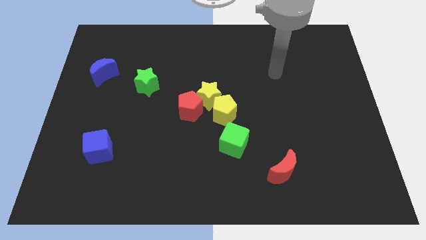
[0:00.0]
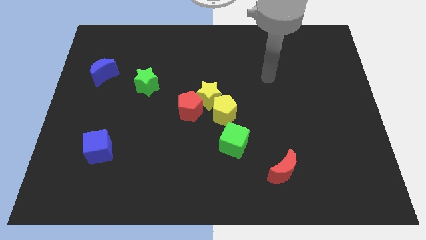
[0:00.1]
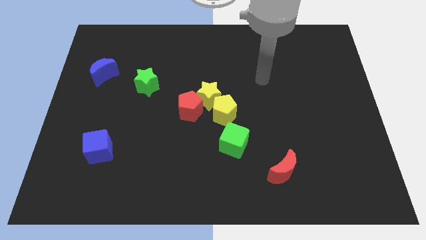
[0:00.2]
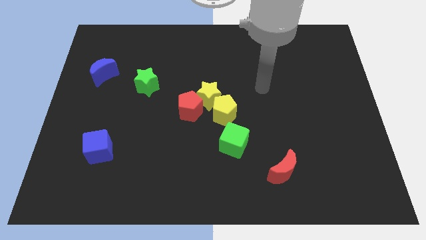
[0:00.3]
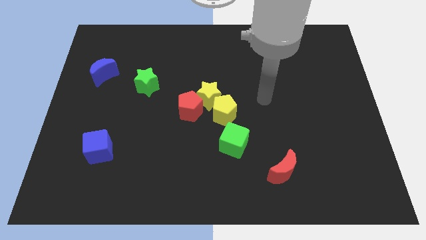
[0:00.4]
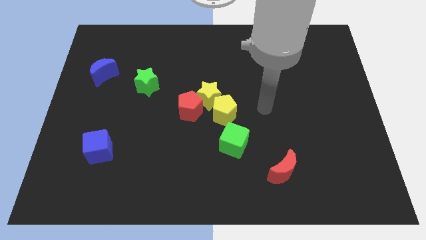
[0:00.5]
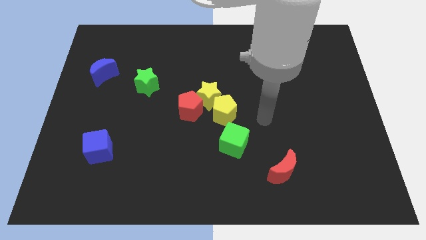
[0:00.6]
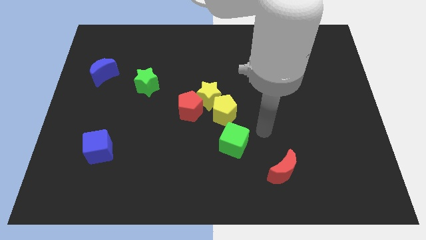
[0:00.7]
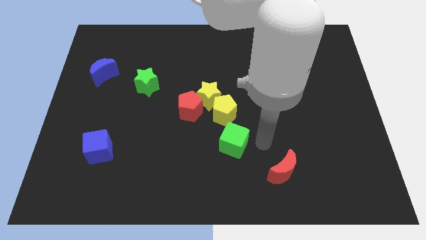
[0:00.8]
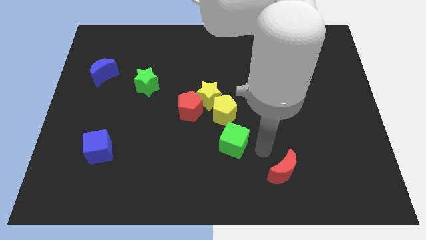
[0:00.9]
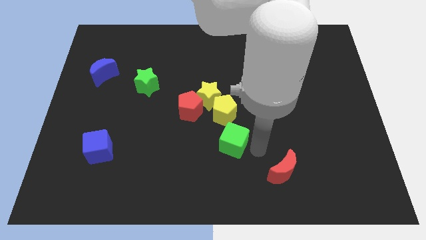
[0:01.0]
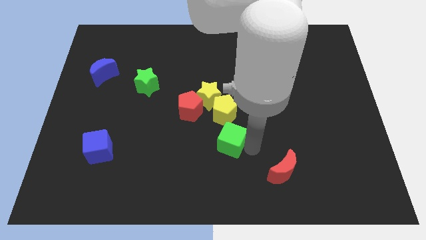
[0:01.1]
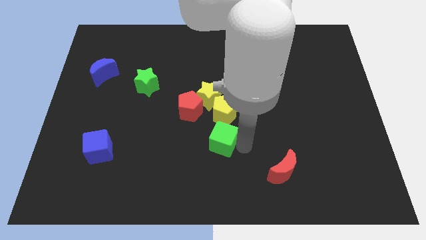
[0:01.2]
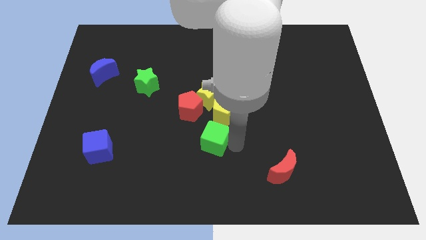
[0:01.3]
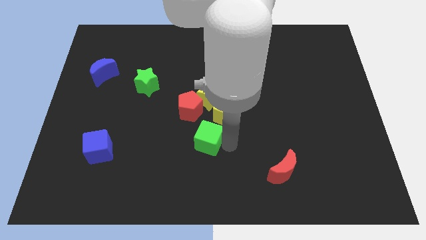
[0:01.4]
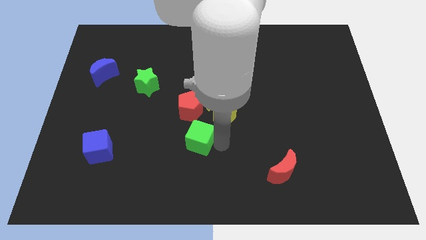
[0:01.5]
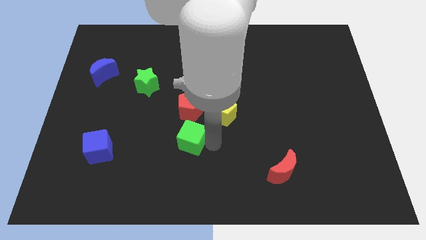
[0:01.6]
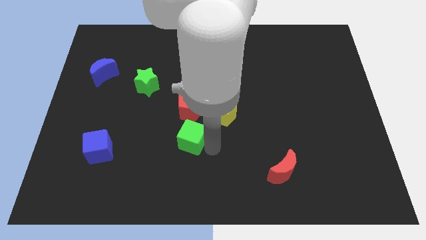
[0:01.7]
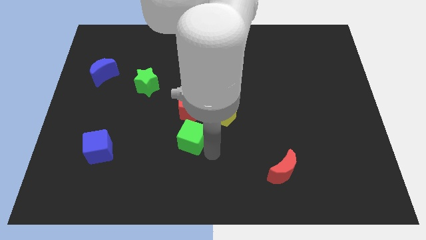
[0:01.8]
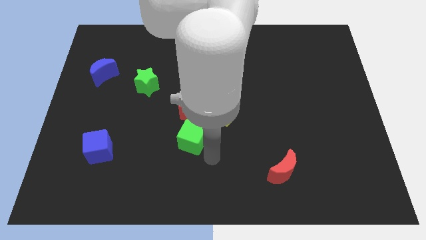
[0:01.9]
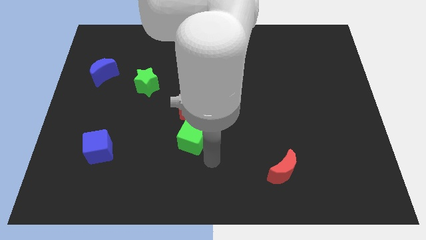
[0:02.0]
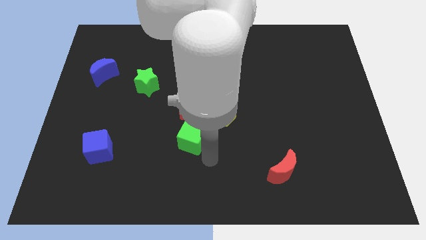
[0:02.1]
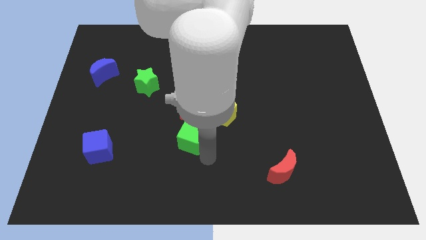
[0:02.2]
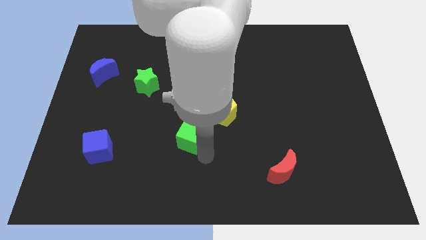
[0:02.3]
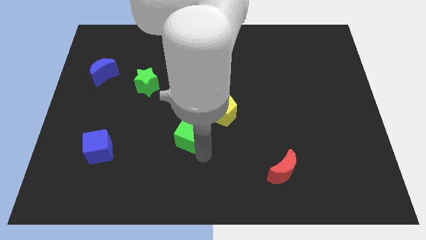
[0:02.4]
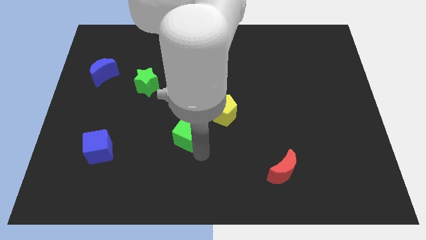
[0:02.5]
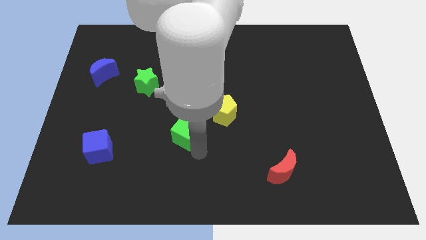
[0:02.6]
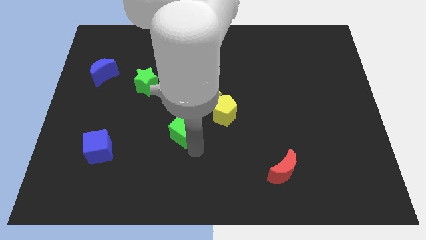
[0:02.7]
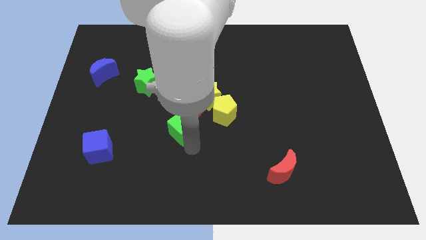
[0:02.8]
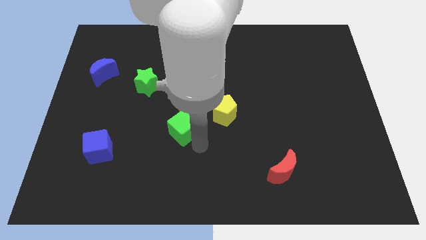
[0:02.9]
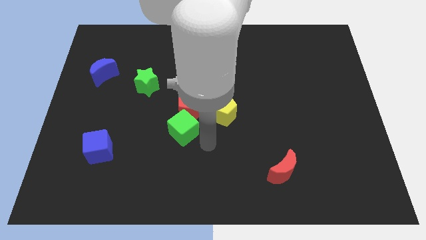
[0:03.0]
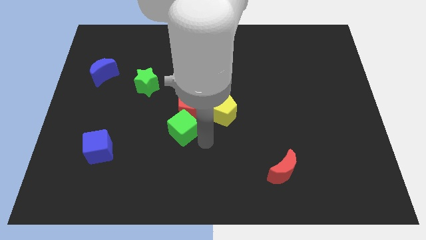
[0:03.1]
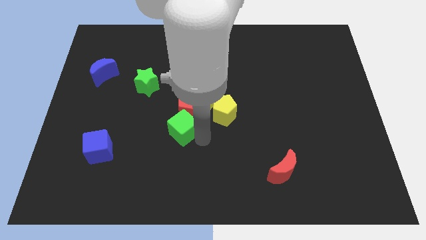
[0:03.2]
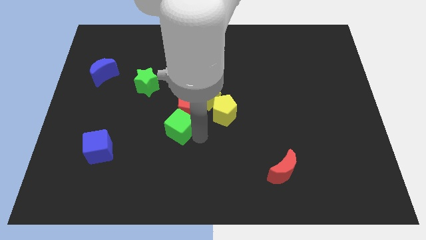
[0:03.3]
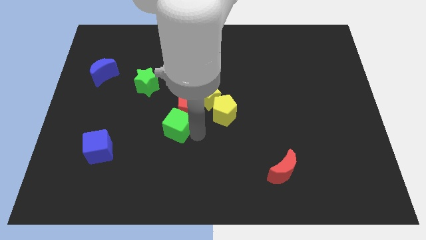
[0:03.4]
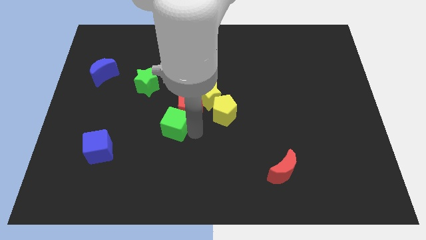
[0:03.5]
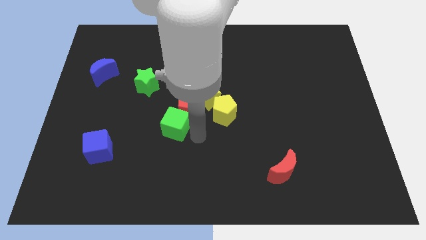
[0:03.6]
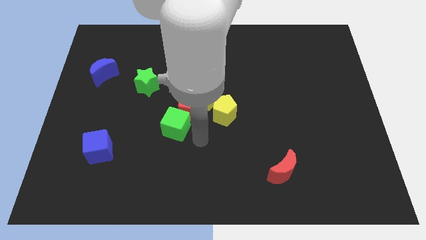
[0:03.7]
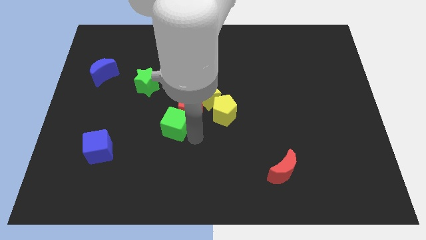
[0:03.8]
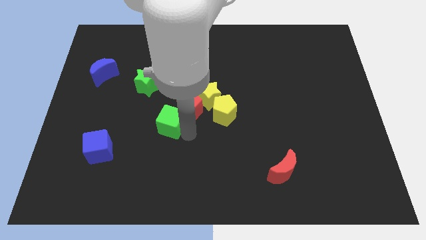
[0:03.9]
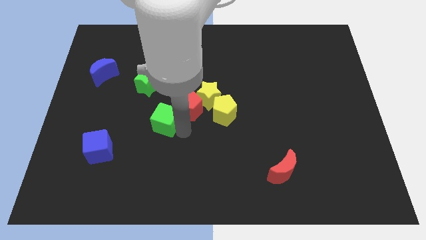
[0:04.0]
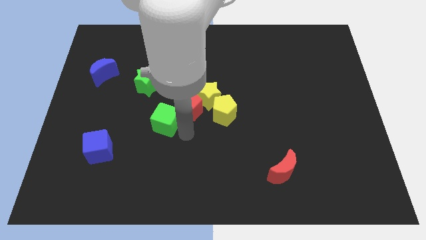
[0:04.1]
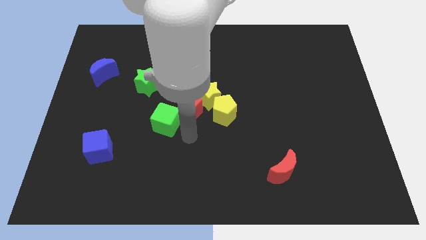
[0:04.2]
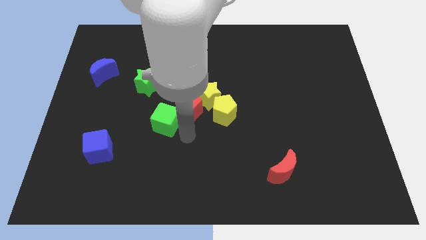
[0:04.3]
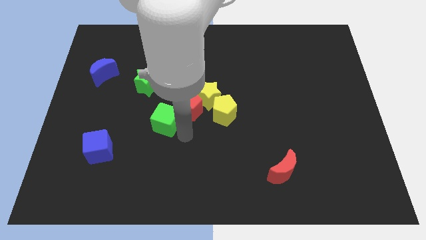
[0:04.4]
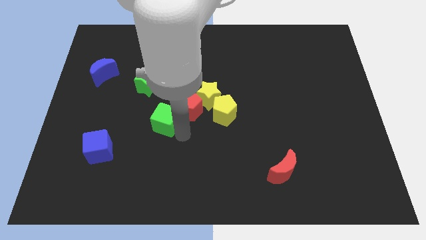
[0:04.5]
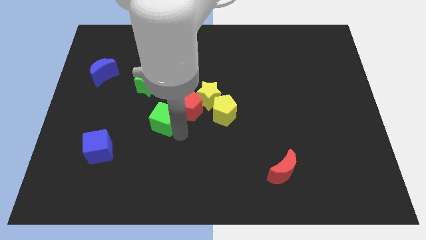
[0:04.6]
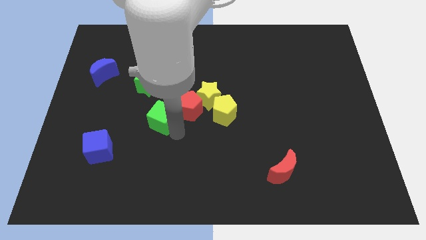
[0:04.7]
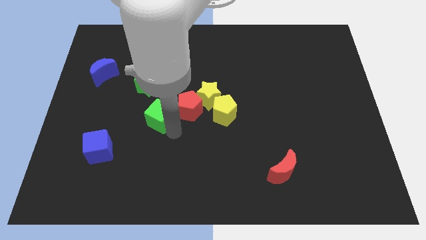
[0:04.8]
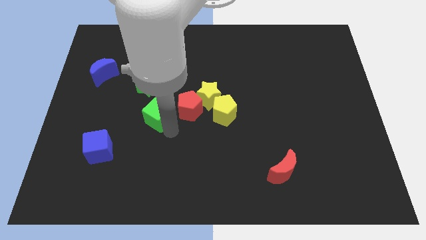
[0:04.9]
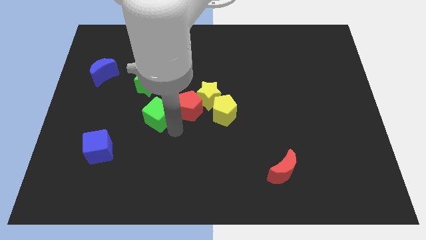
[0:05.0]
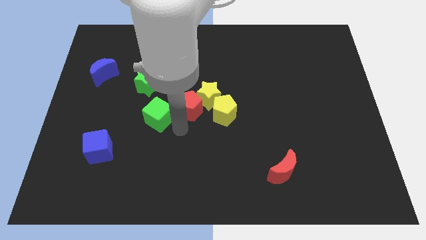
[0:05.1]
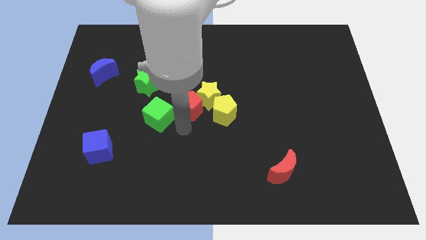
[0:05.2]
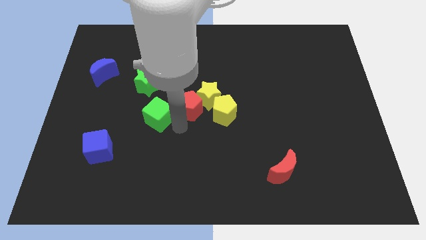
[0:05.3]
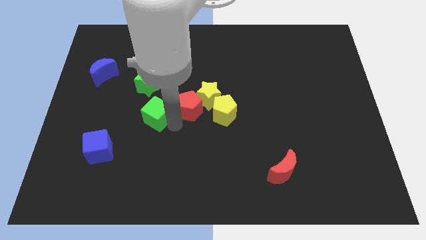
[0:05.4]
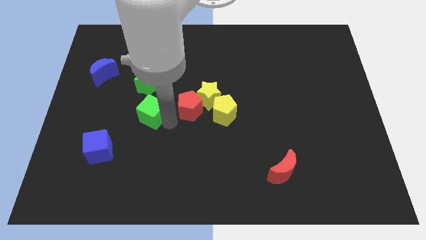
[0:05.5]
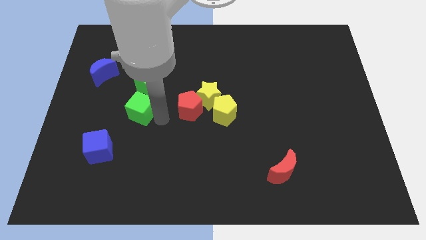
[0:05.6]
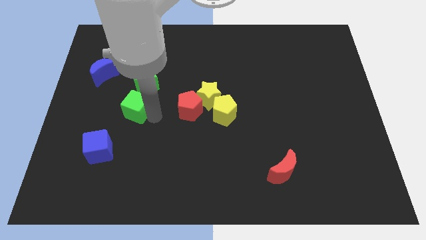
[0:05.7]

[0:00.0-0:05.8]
push the green cube to the bottom left of the green star
